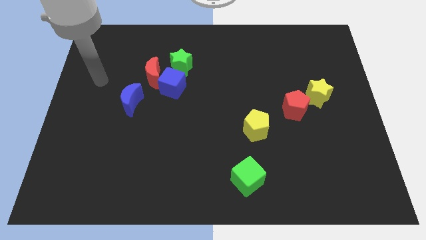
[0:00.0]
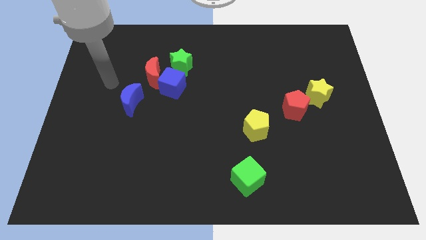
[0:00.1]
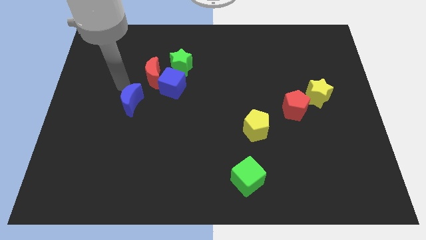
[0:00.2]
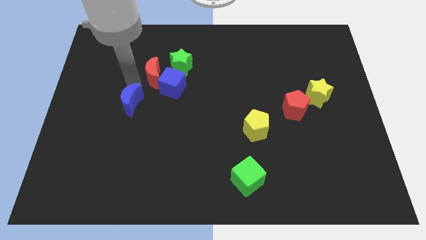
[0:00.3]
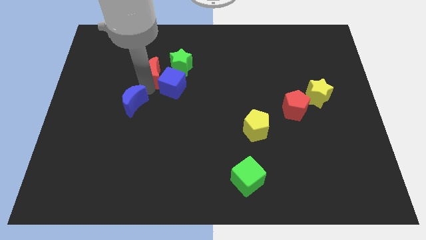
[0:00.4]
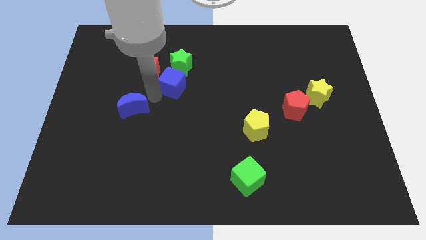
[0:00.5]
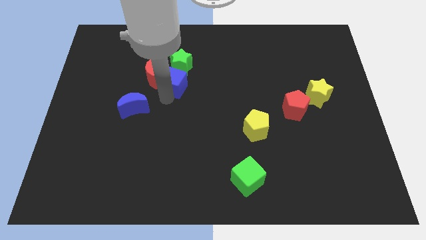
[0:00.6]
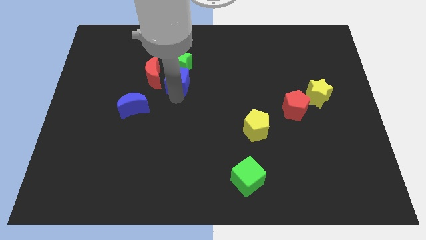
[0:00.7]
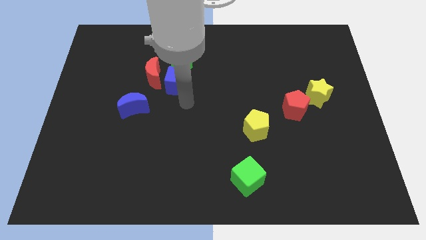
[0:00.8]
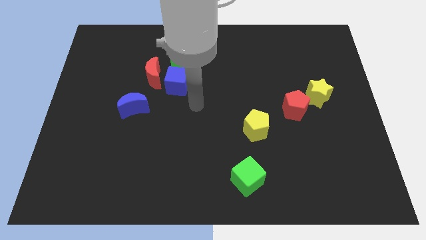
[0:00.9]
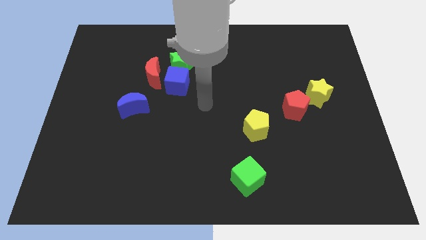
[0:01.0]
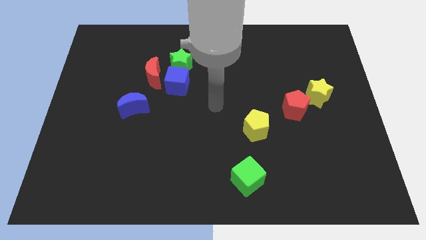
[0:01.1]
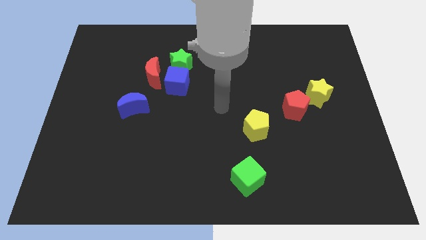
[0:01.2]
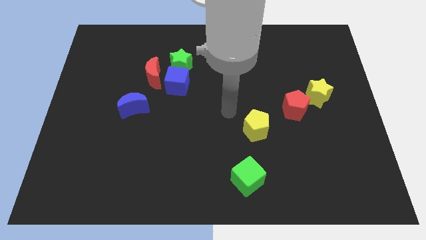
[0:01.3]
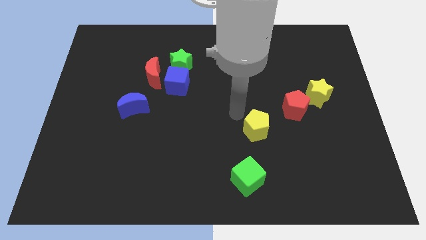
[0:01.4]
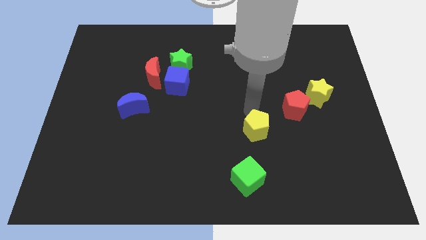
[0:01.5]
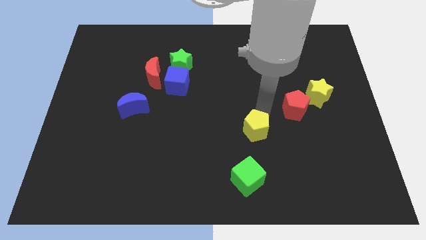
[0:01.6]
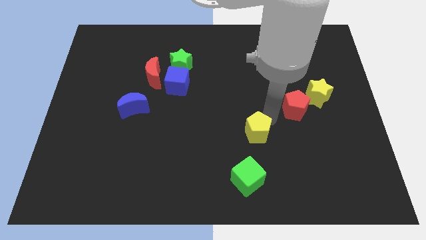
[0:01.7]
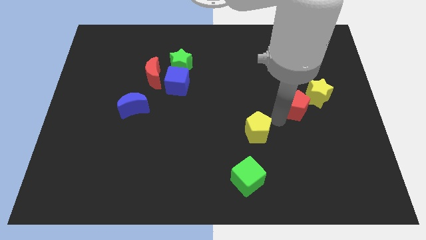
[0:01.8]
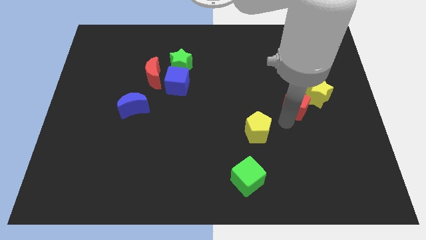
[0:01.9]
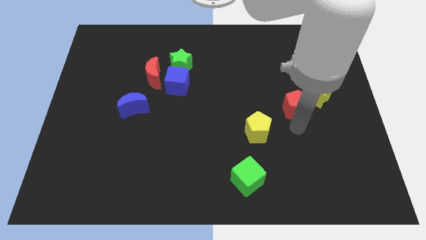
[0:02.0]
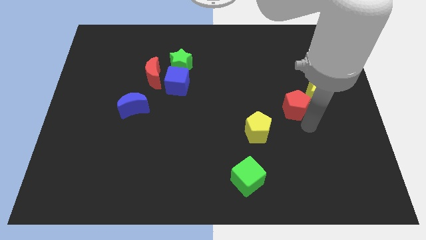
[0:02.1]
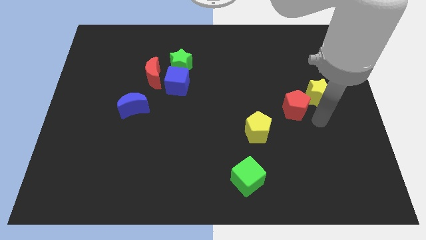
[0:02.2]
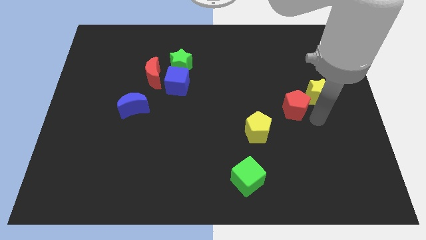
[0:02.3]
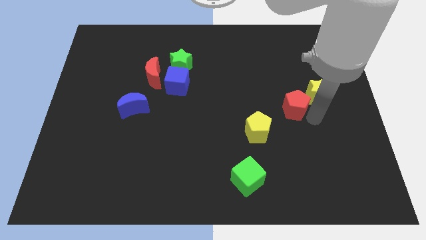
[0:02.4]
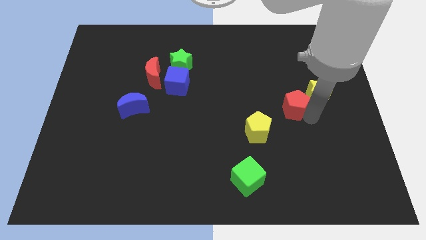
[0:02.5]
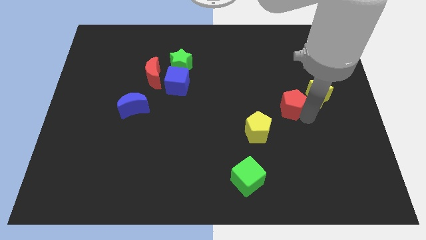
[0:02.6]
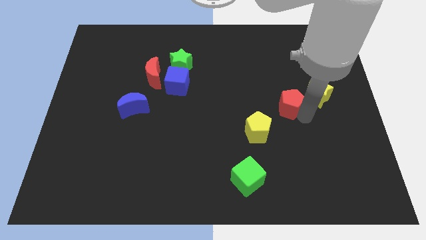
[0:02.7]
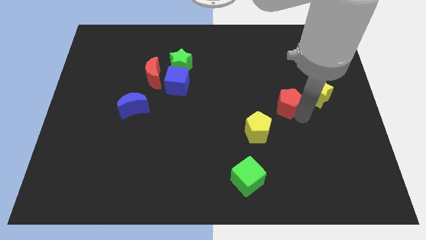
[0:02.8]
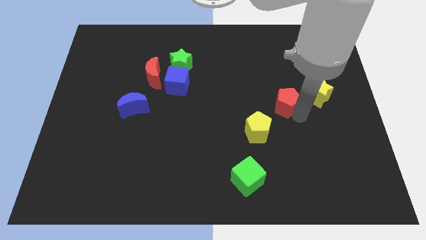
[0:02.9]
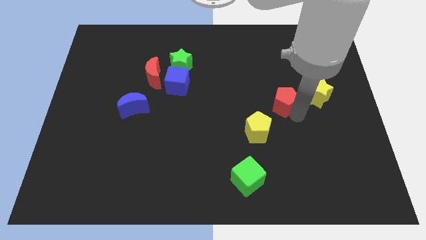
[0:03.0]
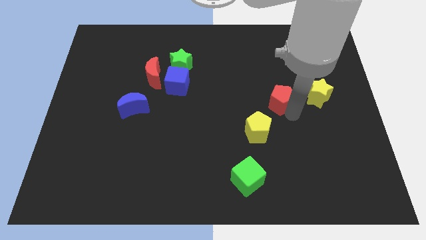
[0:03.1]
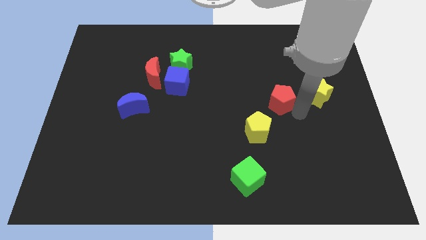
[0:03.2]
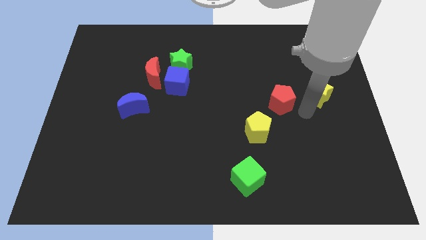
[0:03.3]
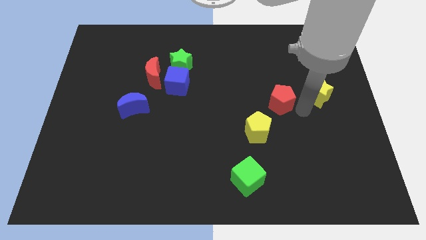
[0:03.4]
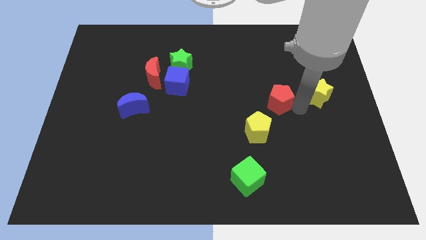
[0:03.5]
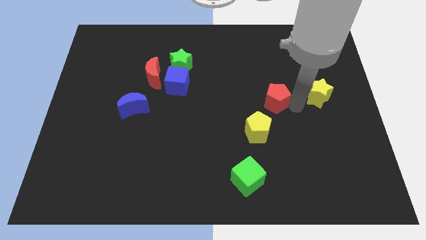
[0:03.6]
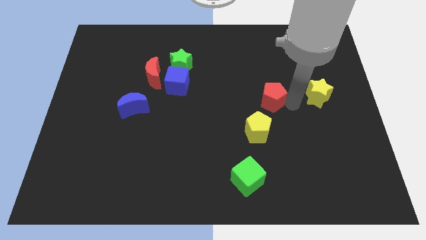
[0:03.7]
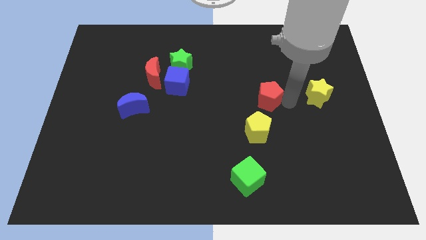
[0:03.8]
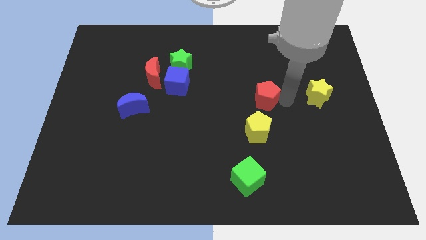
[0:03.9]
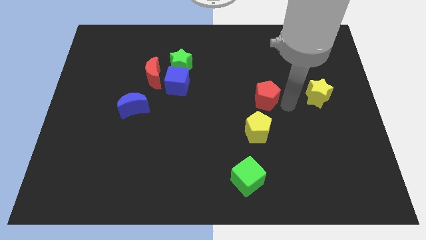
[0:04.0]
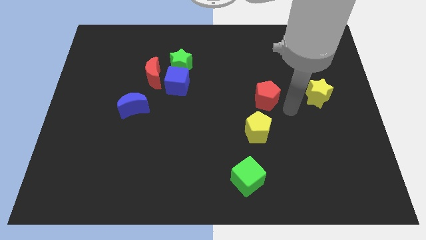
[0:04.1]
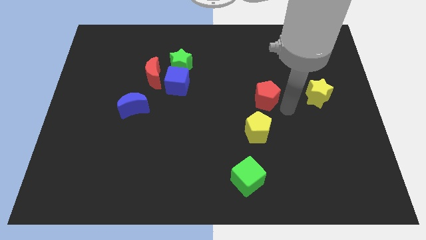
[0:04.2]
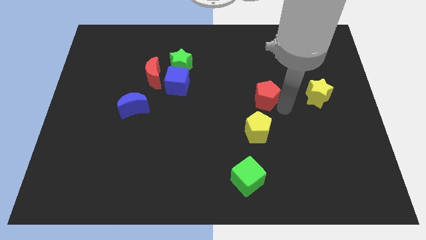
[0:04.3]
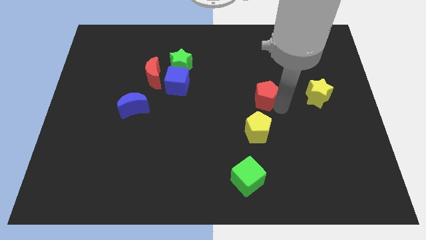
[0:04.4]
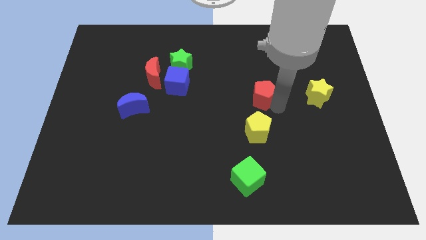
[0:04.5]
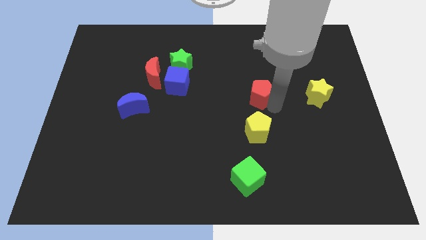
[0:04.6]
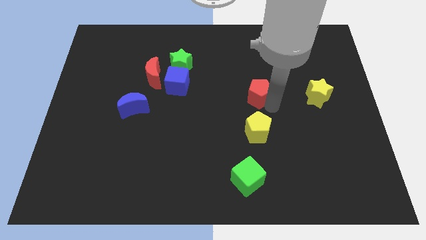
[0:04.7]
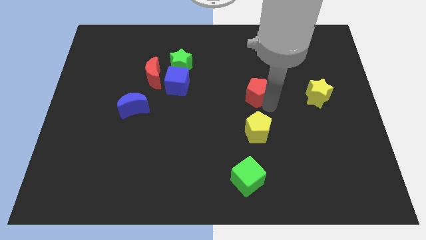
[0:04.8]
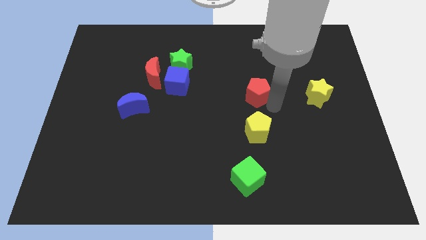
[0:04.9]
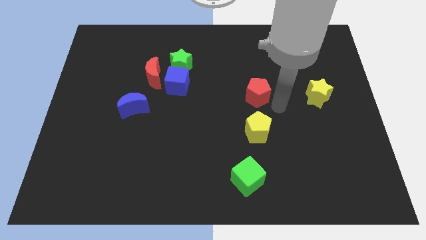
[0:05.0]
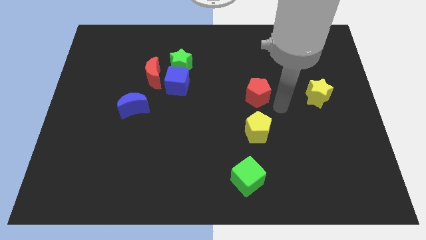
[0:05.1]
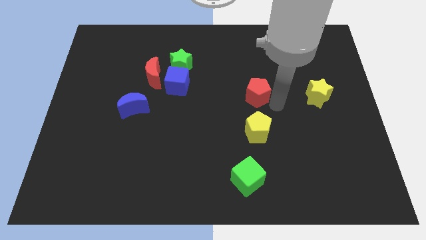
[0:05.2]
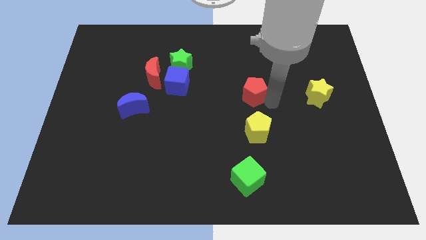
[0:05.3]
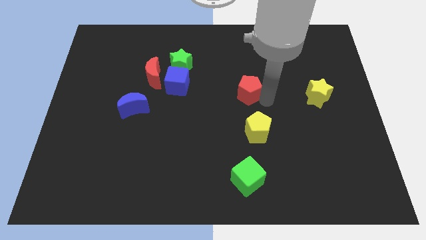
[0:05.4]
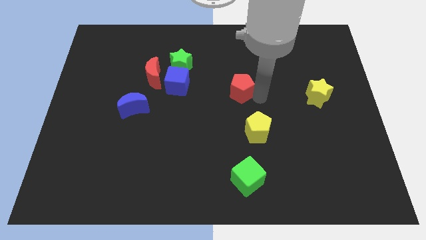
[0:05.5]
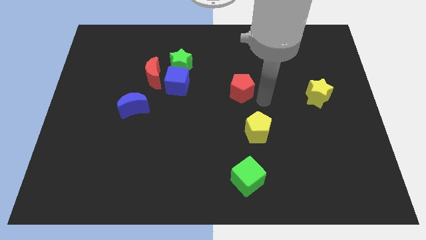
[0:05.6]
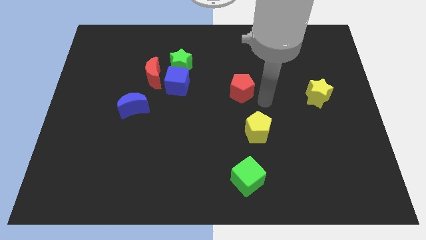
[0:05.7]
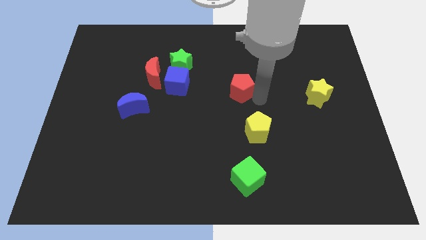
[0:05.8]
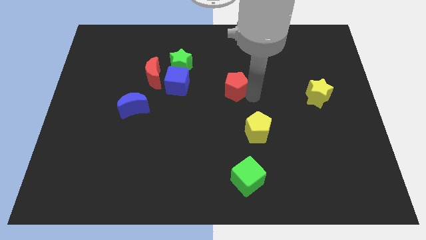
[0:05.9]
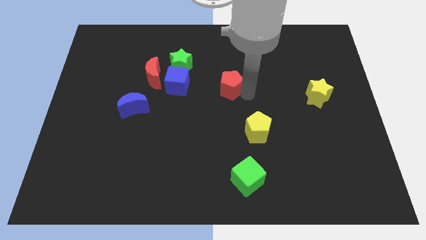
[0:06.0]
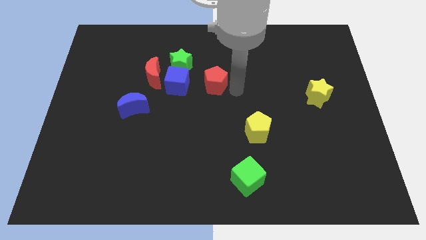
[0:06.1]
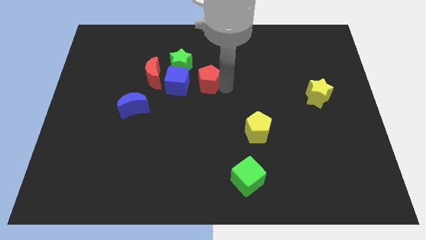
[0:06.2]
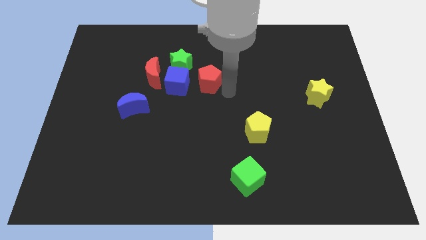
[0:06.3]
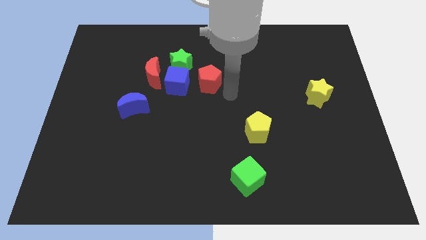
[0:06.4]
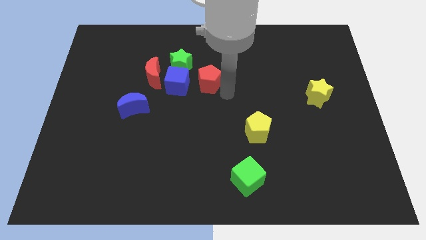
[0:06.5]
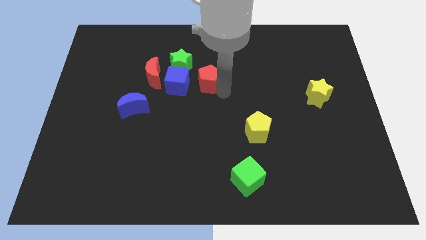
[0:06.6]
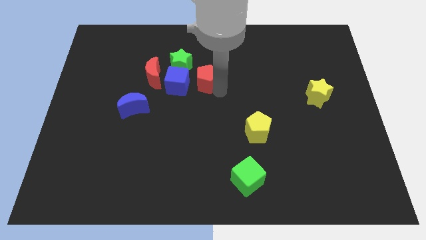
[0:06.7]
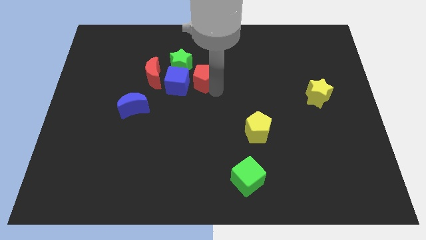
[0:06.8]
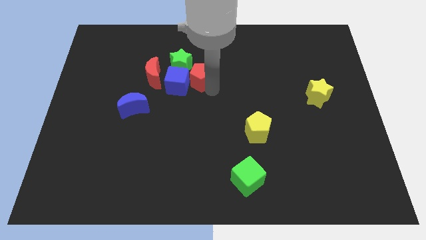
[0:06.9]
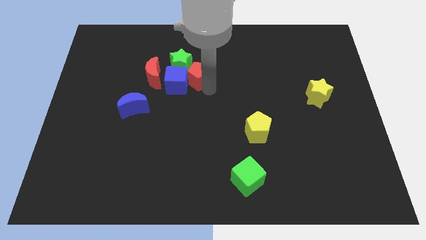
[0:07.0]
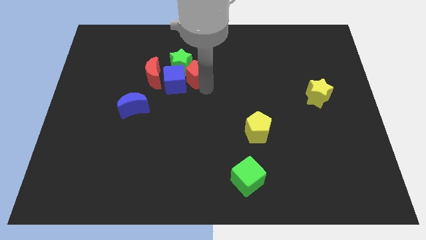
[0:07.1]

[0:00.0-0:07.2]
move the red pentagon to the green star

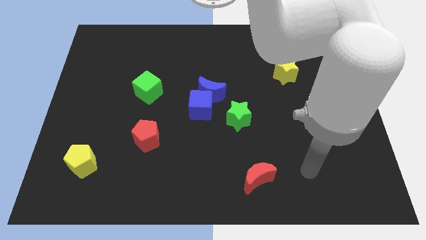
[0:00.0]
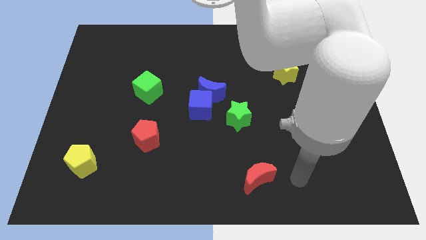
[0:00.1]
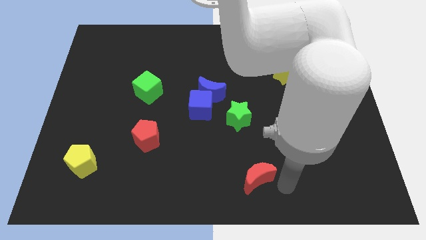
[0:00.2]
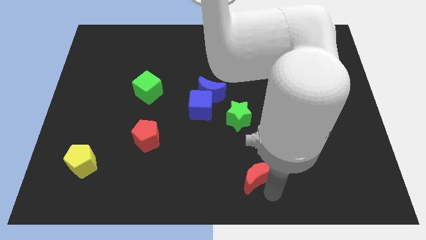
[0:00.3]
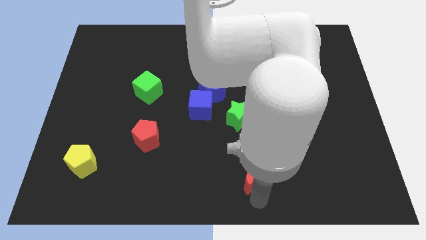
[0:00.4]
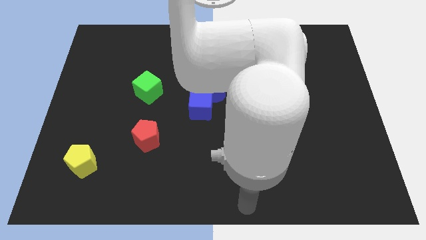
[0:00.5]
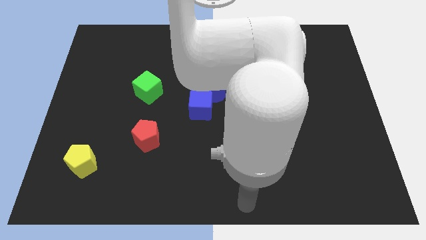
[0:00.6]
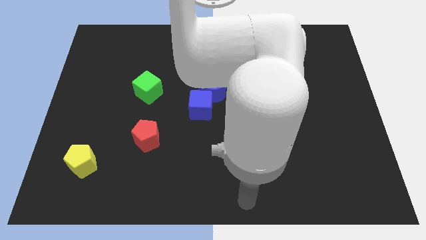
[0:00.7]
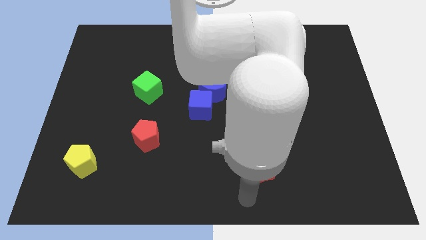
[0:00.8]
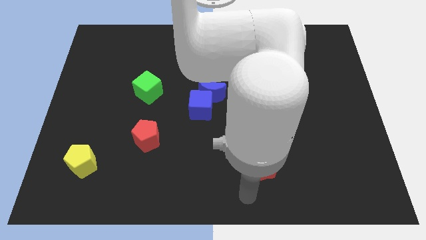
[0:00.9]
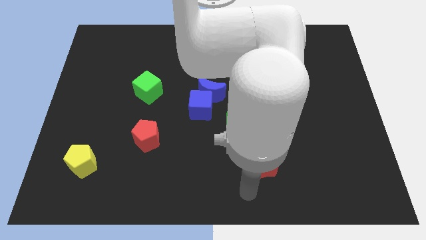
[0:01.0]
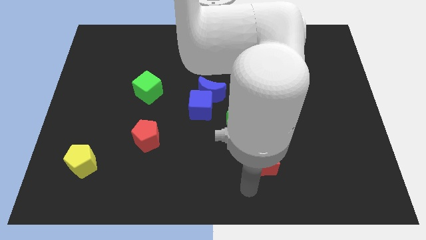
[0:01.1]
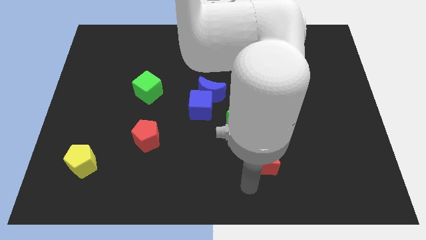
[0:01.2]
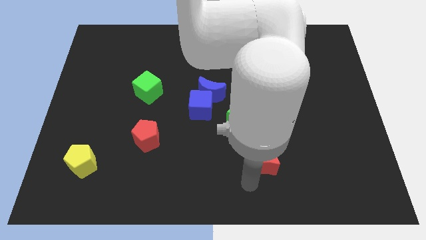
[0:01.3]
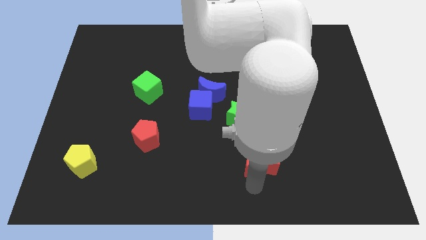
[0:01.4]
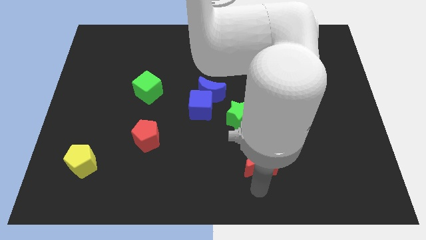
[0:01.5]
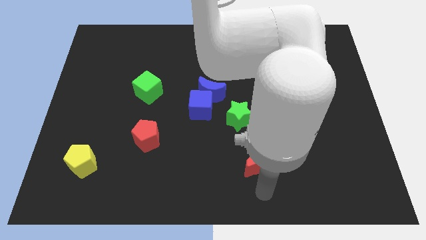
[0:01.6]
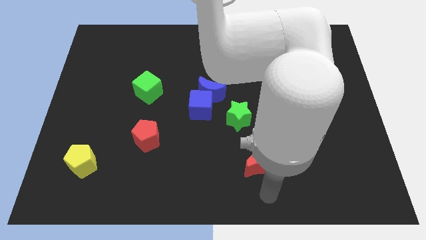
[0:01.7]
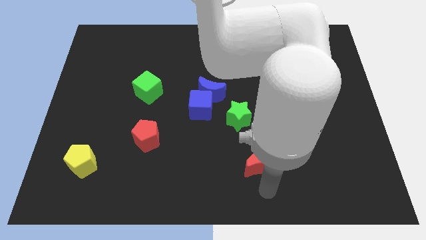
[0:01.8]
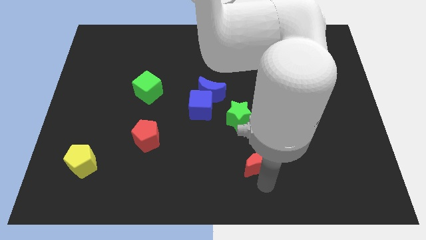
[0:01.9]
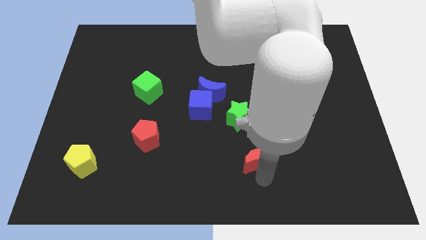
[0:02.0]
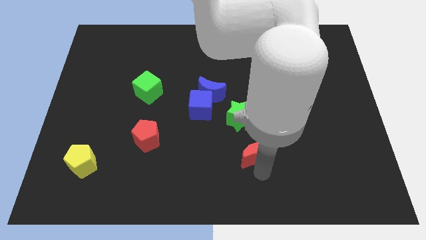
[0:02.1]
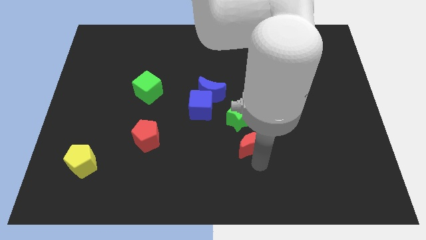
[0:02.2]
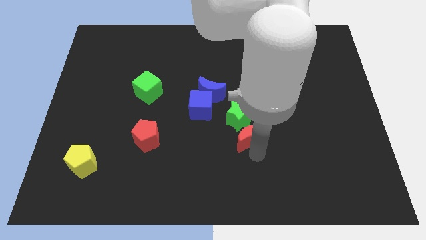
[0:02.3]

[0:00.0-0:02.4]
slide the red moon close to the green star
